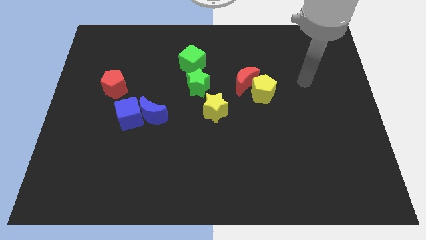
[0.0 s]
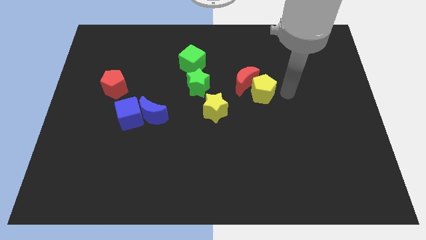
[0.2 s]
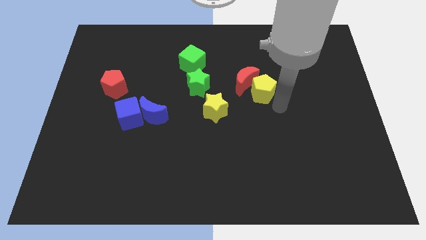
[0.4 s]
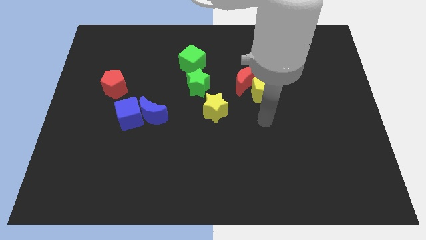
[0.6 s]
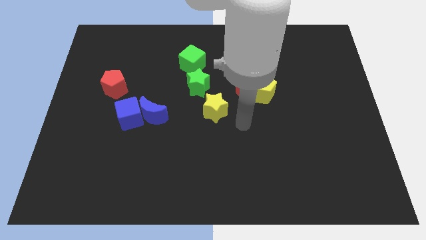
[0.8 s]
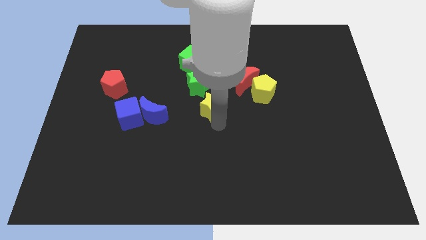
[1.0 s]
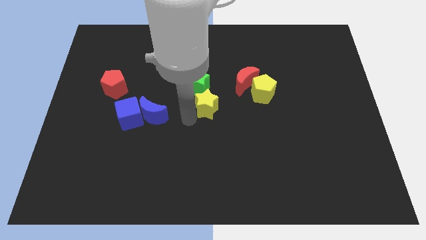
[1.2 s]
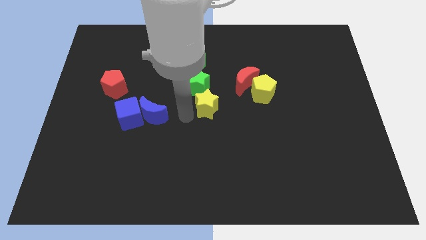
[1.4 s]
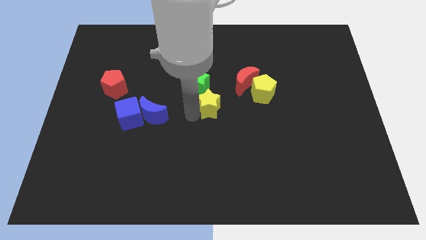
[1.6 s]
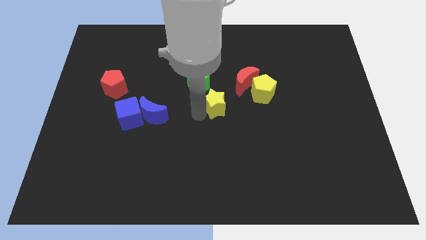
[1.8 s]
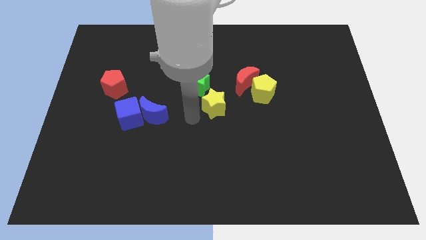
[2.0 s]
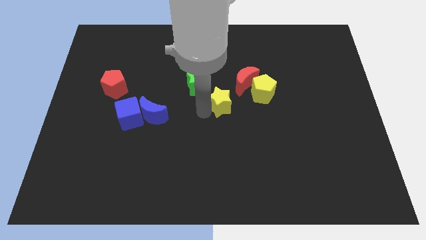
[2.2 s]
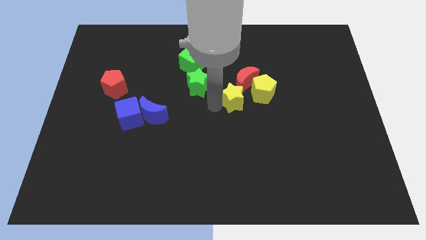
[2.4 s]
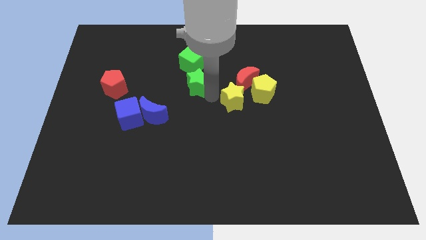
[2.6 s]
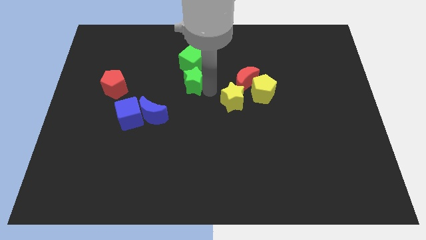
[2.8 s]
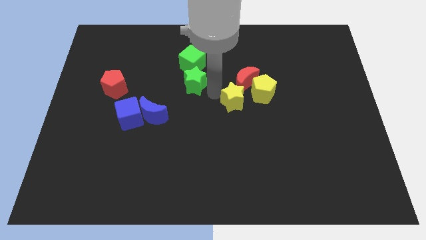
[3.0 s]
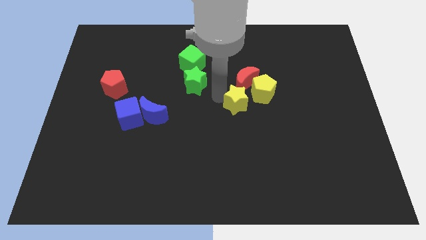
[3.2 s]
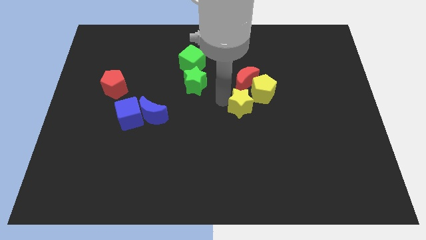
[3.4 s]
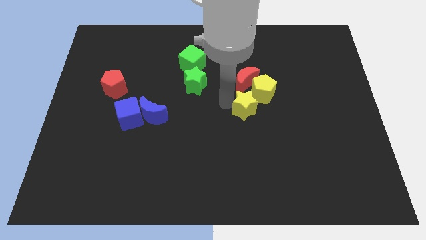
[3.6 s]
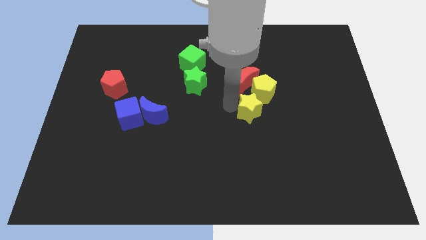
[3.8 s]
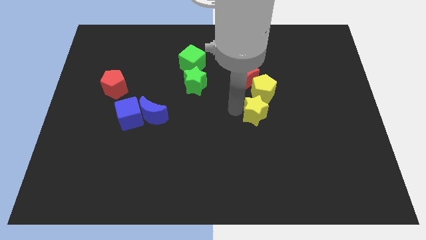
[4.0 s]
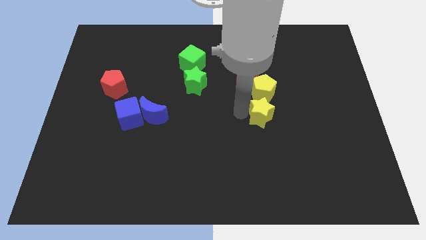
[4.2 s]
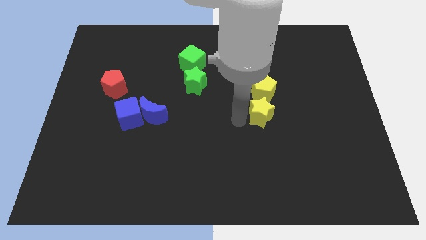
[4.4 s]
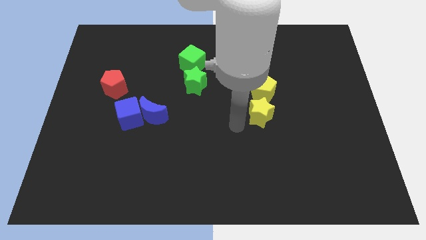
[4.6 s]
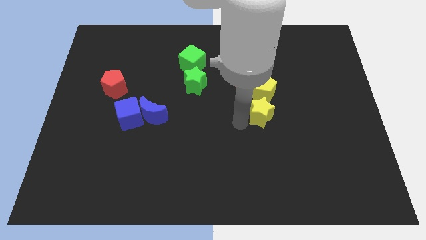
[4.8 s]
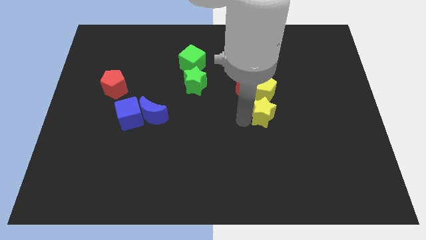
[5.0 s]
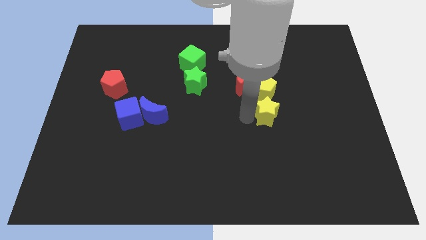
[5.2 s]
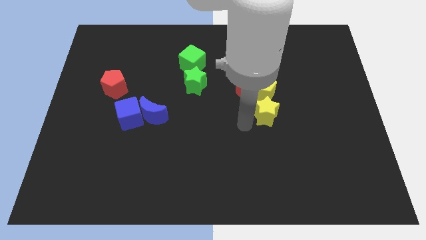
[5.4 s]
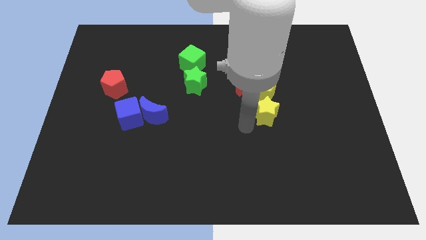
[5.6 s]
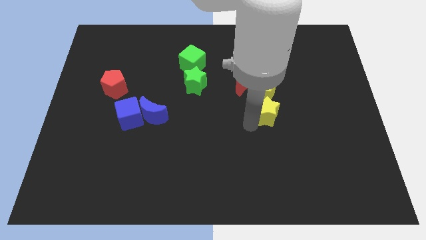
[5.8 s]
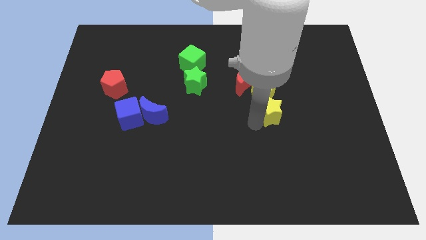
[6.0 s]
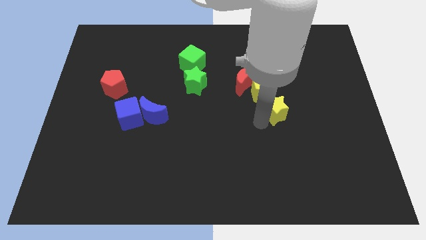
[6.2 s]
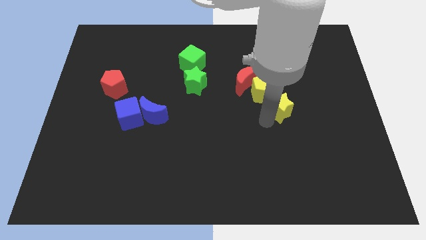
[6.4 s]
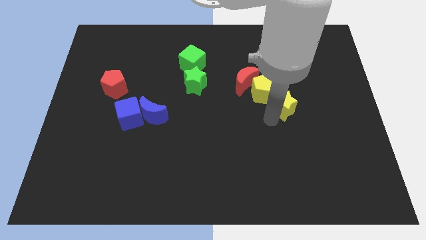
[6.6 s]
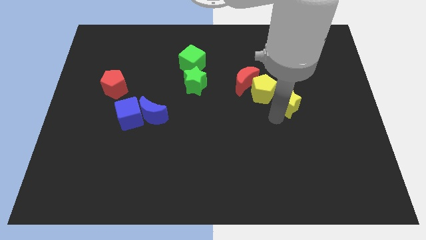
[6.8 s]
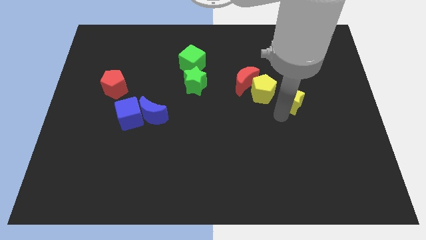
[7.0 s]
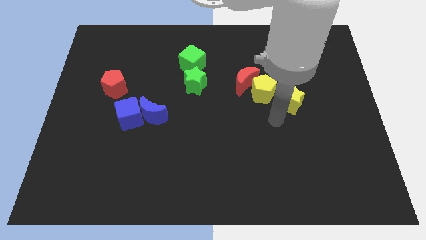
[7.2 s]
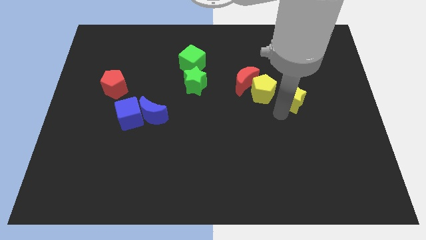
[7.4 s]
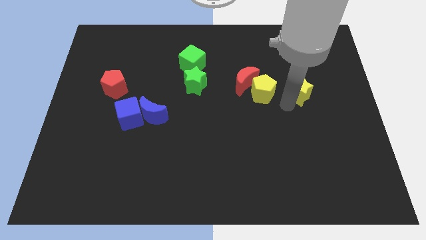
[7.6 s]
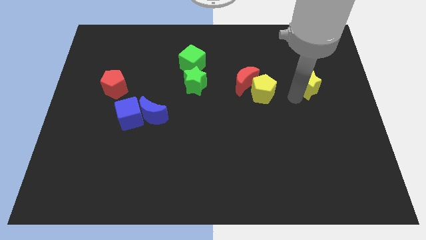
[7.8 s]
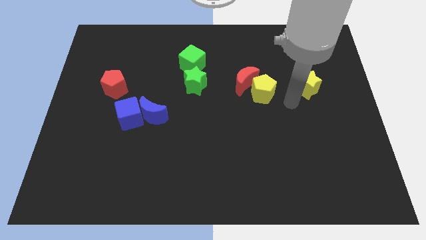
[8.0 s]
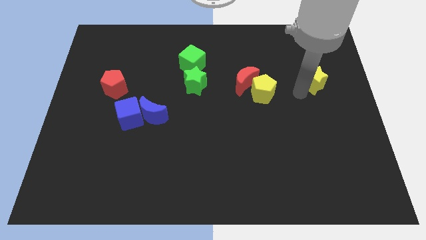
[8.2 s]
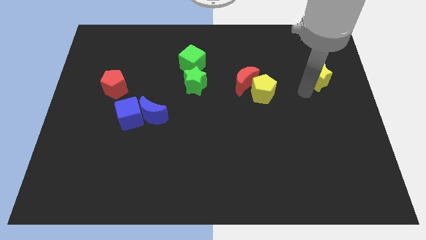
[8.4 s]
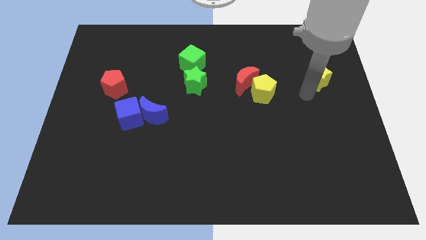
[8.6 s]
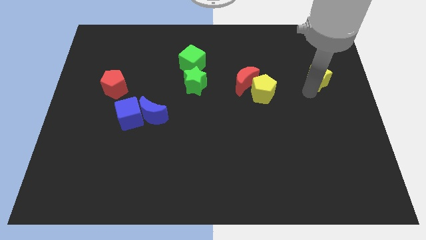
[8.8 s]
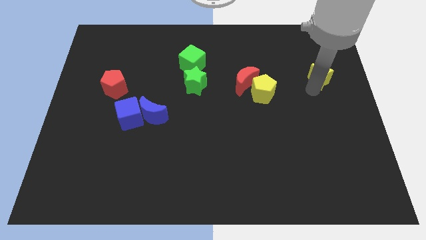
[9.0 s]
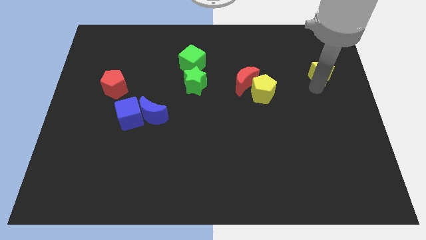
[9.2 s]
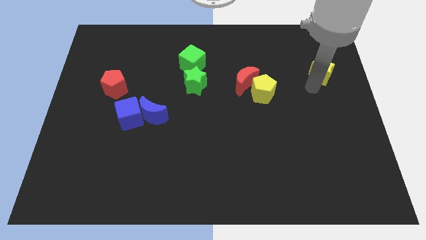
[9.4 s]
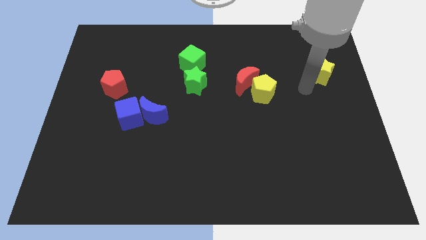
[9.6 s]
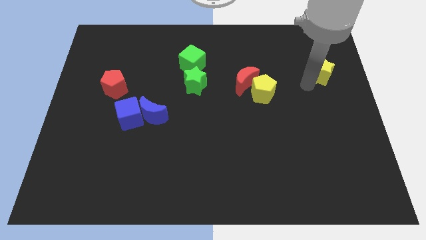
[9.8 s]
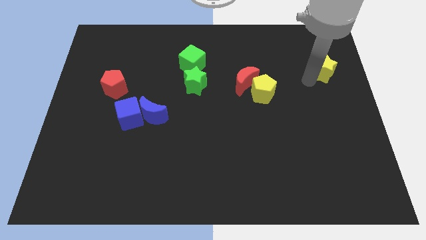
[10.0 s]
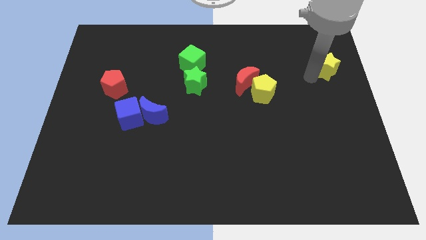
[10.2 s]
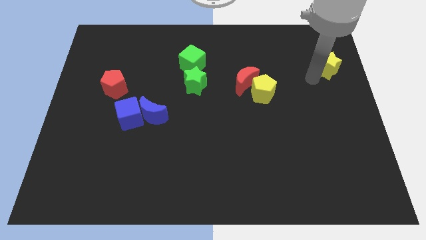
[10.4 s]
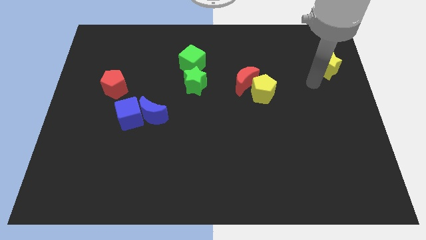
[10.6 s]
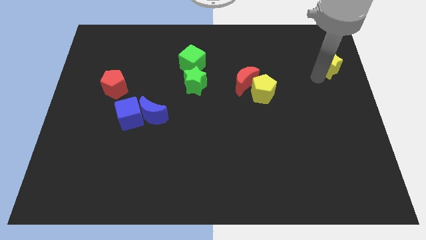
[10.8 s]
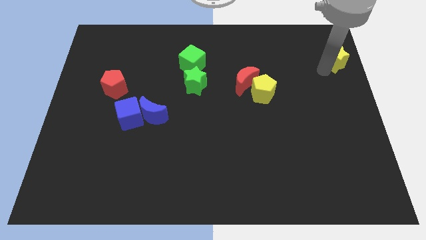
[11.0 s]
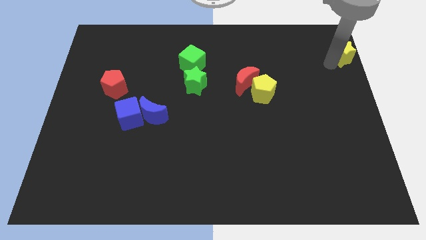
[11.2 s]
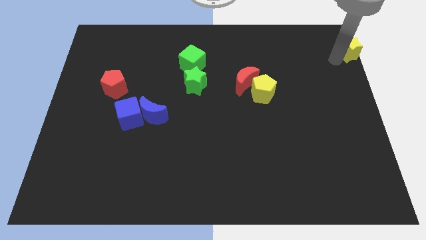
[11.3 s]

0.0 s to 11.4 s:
slide the yellow star to the top right corner

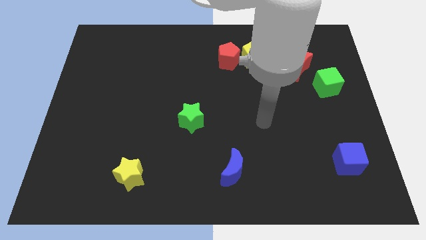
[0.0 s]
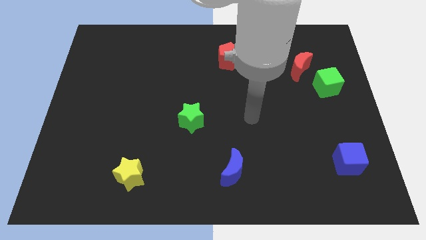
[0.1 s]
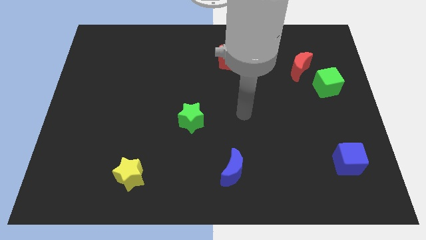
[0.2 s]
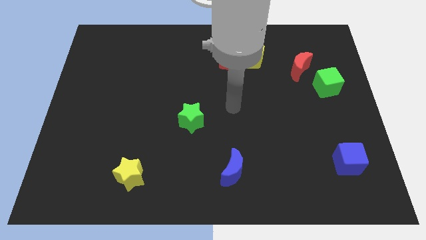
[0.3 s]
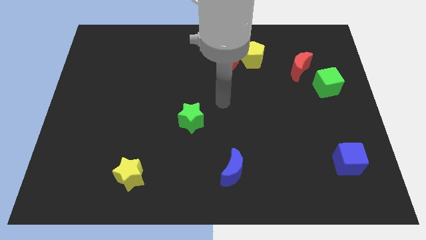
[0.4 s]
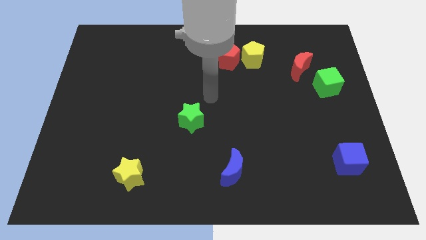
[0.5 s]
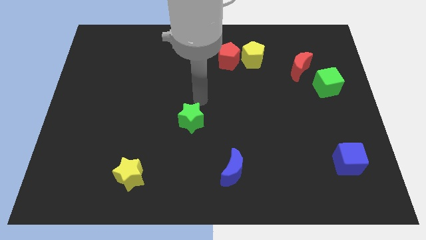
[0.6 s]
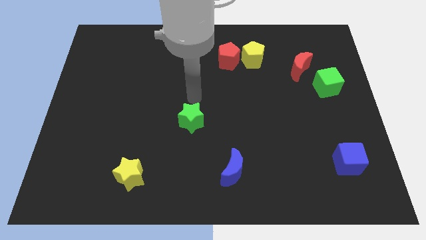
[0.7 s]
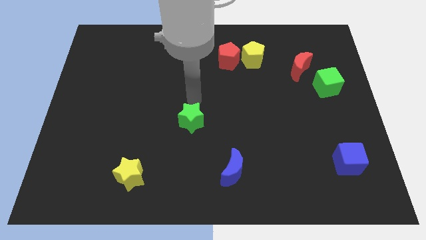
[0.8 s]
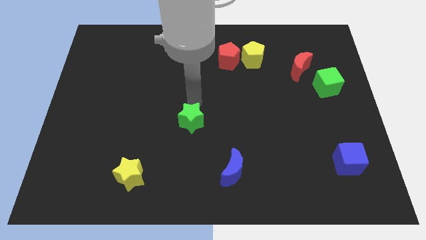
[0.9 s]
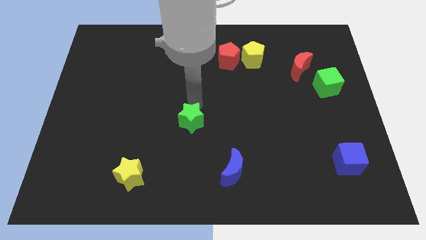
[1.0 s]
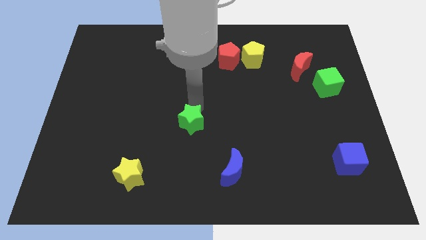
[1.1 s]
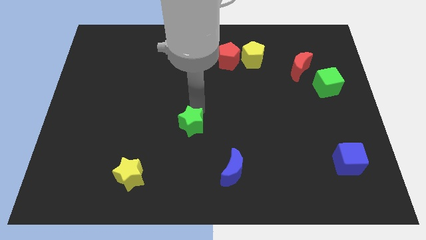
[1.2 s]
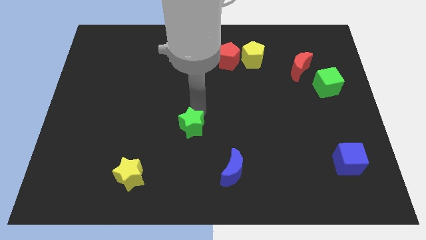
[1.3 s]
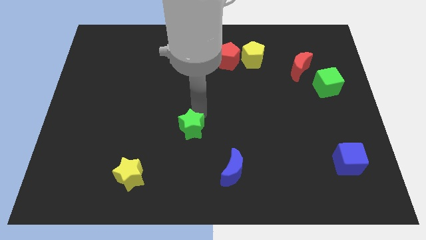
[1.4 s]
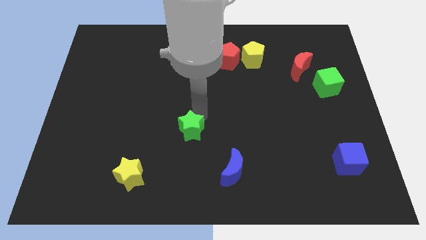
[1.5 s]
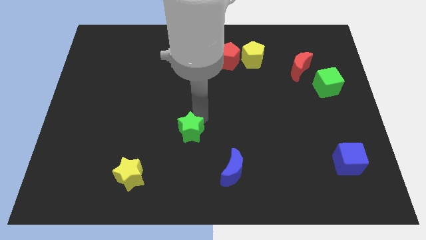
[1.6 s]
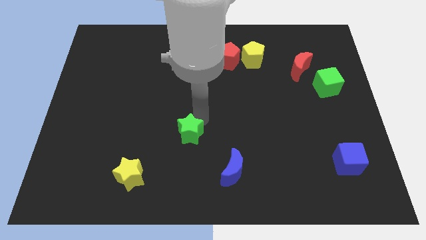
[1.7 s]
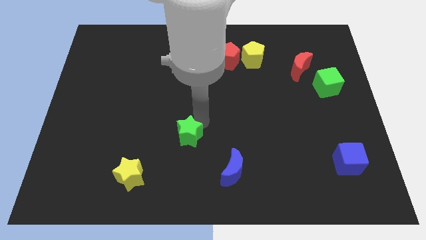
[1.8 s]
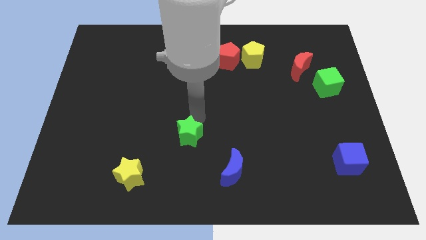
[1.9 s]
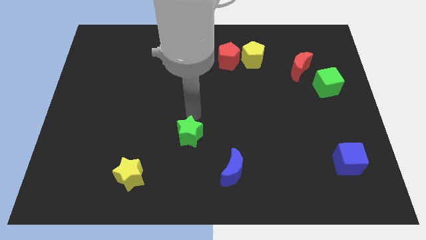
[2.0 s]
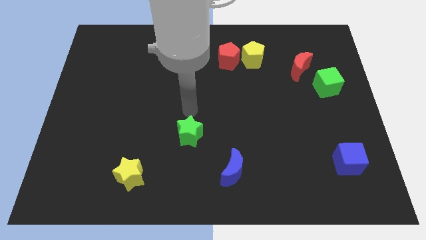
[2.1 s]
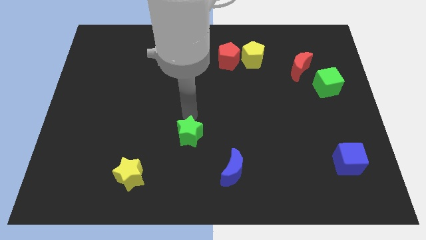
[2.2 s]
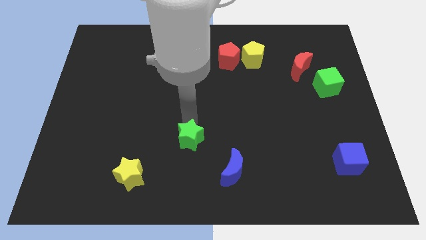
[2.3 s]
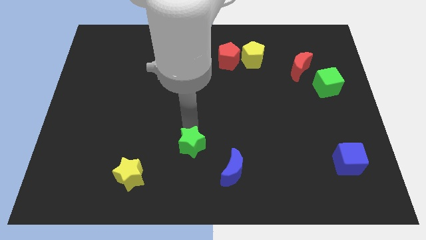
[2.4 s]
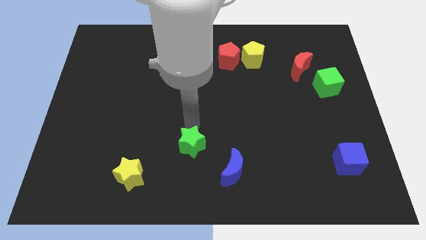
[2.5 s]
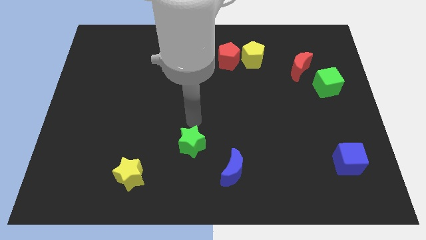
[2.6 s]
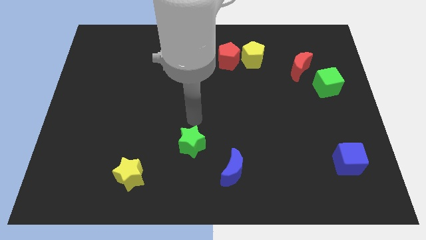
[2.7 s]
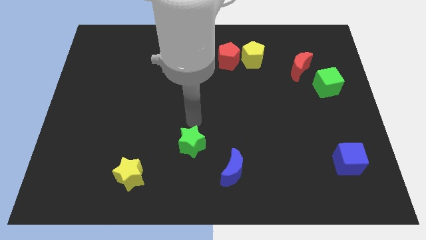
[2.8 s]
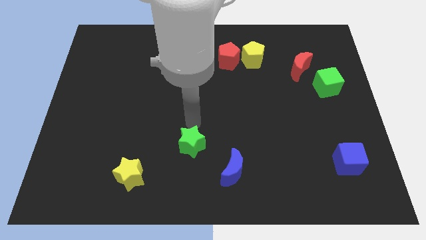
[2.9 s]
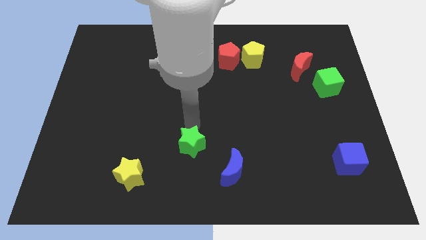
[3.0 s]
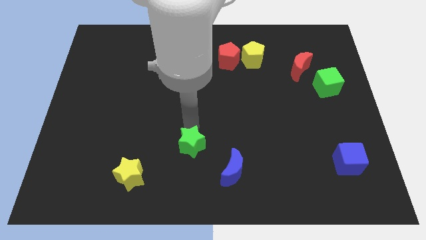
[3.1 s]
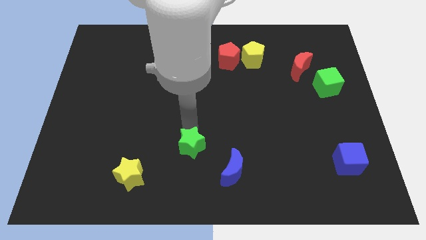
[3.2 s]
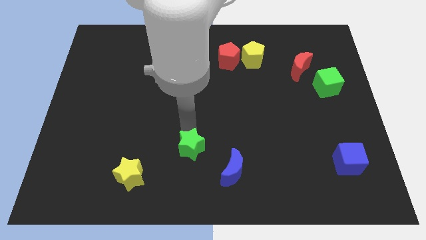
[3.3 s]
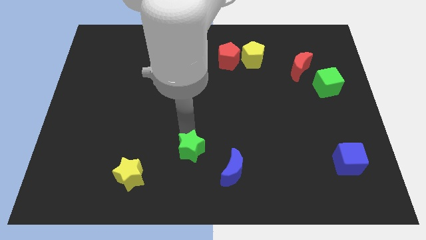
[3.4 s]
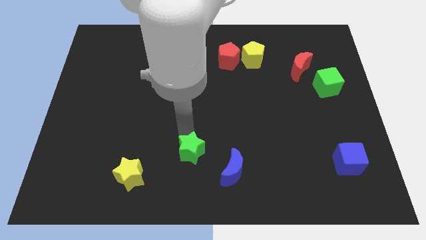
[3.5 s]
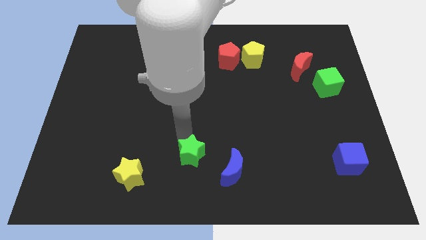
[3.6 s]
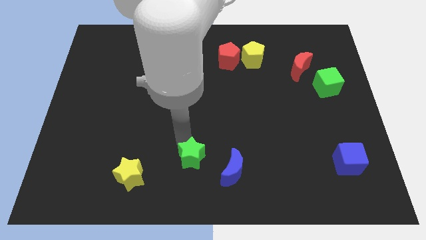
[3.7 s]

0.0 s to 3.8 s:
put the green star to the bottom
